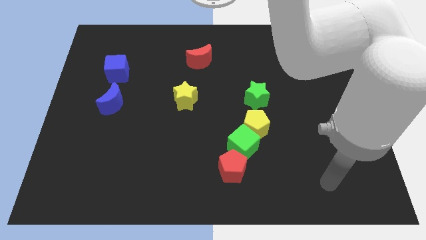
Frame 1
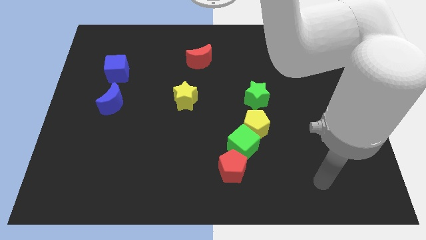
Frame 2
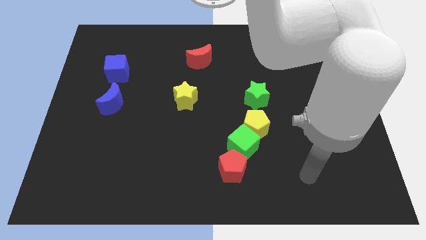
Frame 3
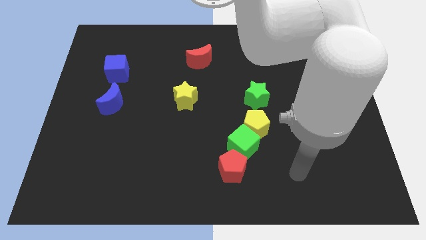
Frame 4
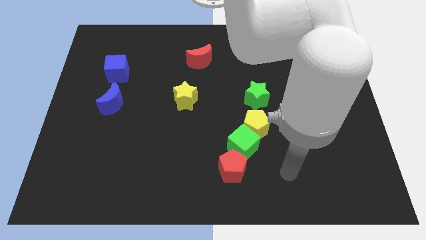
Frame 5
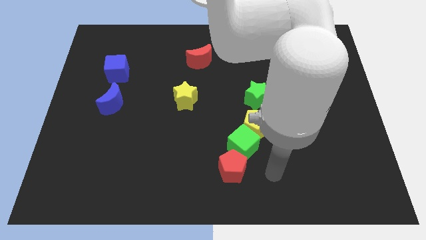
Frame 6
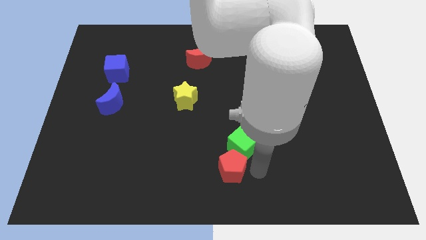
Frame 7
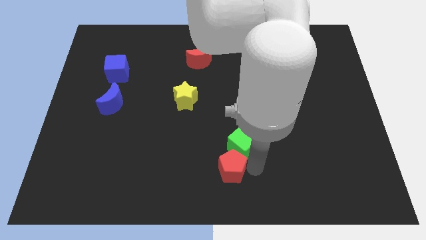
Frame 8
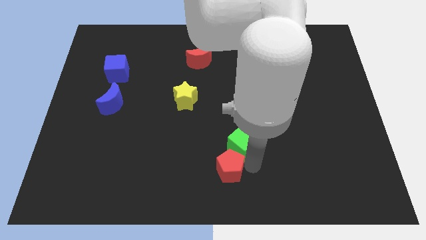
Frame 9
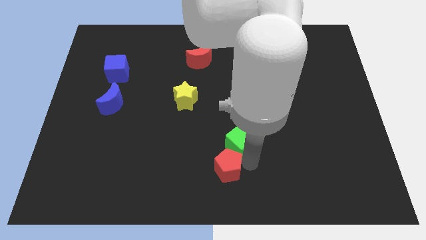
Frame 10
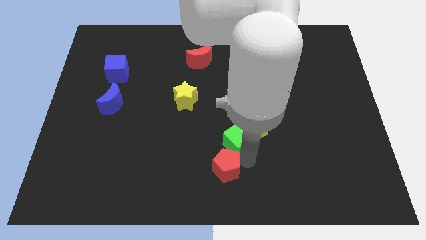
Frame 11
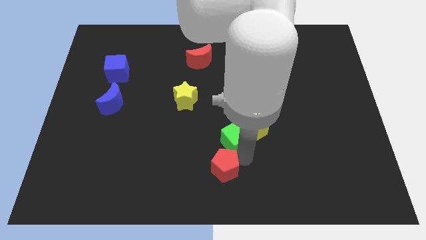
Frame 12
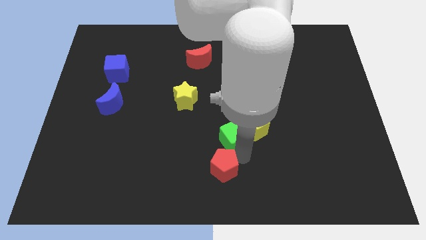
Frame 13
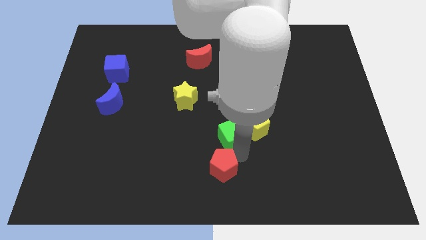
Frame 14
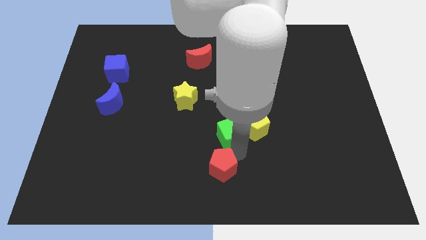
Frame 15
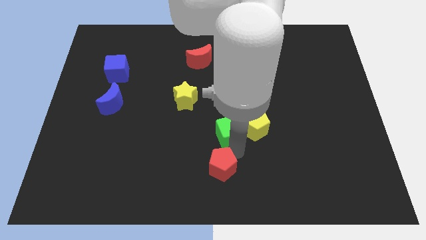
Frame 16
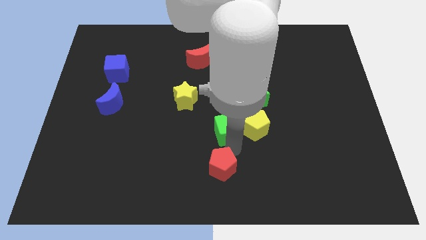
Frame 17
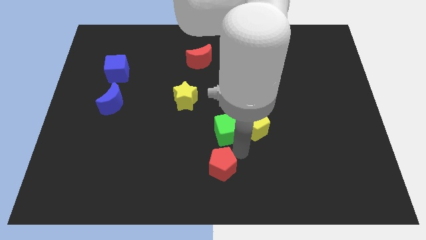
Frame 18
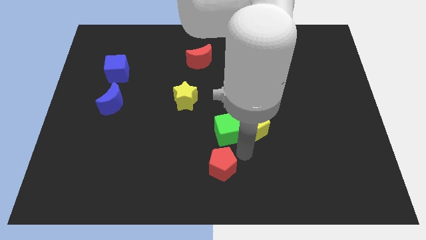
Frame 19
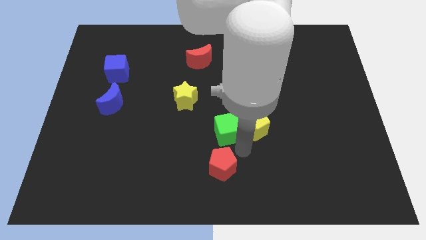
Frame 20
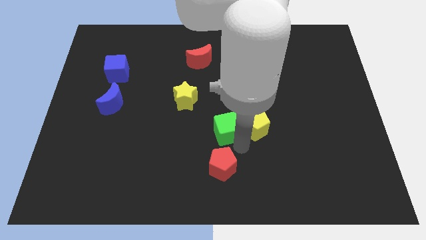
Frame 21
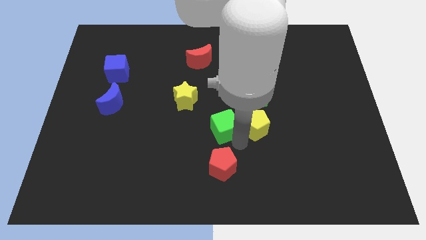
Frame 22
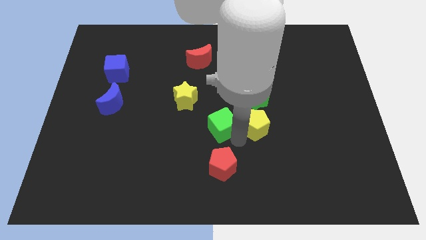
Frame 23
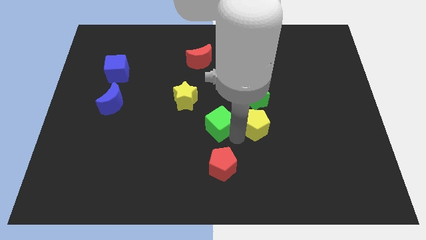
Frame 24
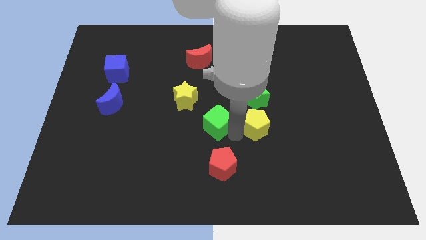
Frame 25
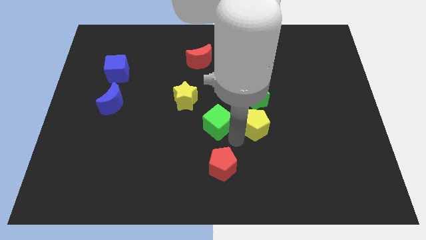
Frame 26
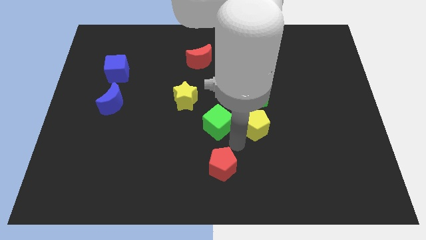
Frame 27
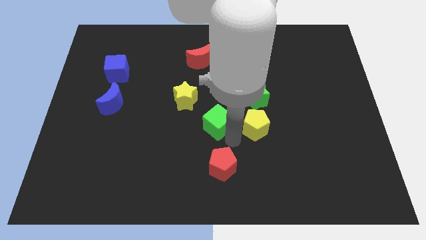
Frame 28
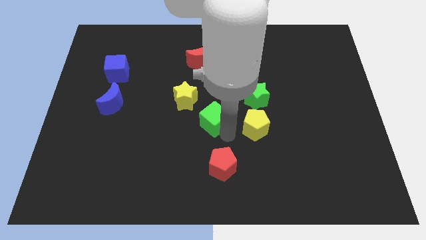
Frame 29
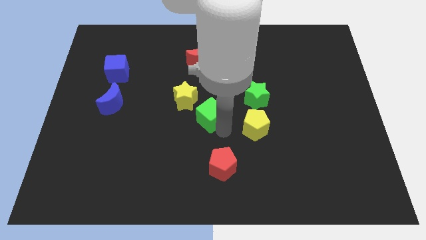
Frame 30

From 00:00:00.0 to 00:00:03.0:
pull the green cube apart from the yellow pentagon and red pentagon

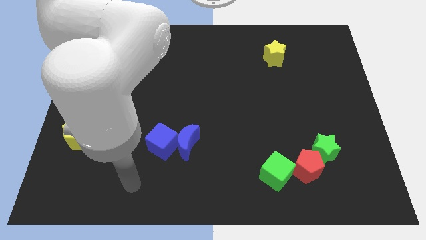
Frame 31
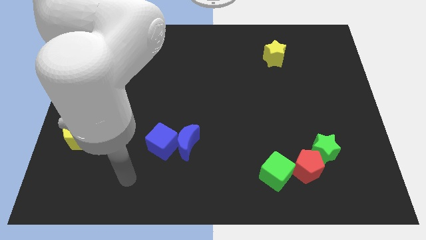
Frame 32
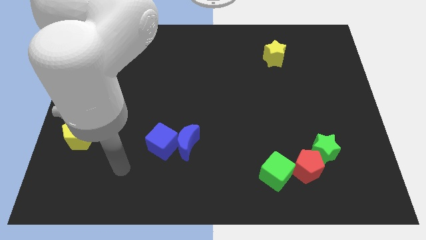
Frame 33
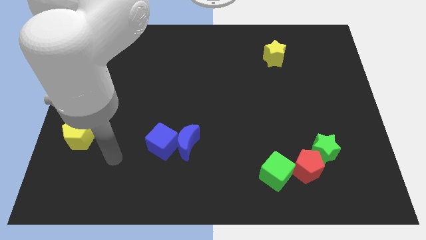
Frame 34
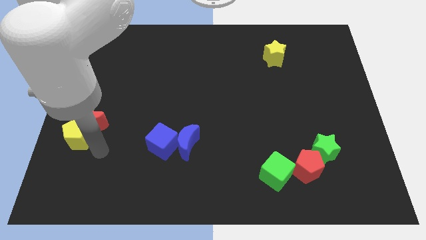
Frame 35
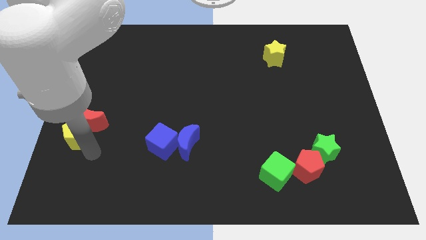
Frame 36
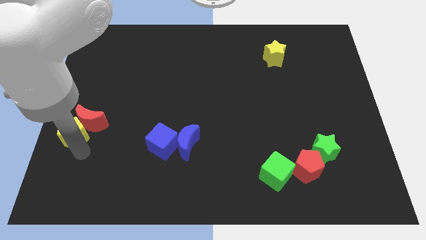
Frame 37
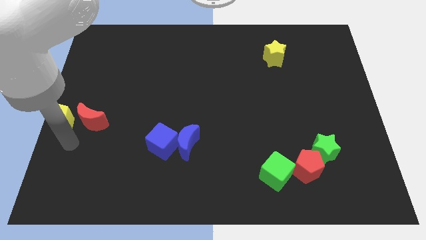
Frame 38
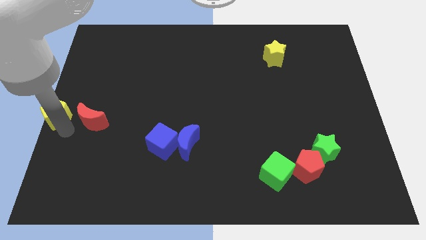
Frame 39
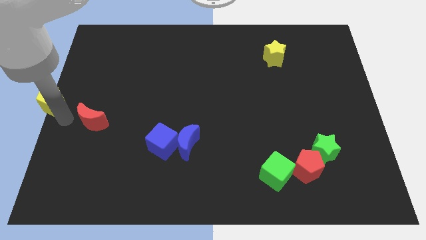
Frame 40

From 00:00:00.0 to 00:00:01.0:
move the red moon away from the yellow pentagon

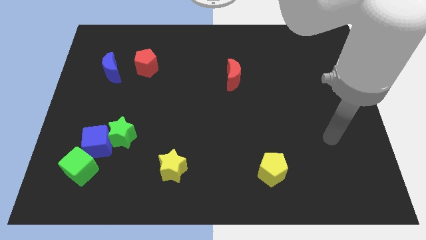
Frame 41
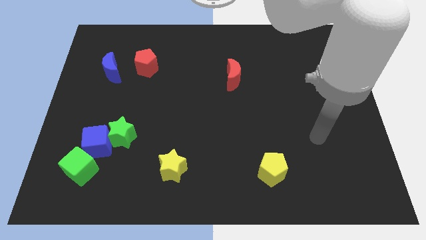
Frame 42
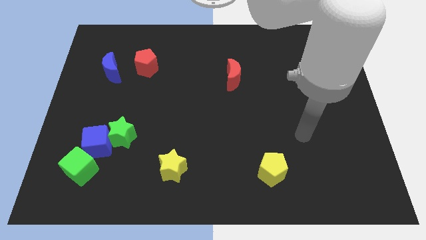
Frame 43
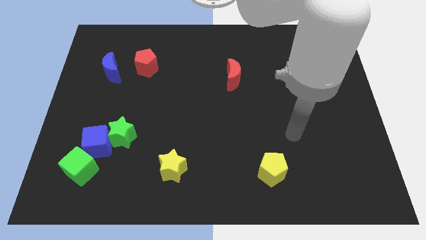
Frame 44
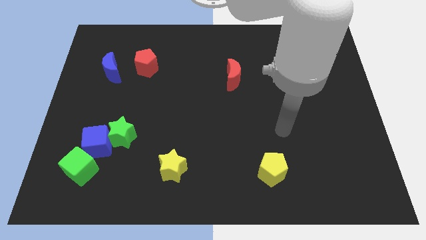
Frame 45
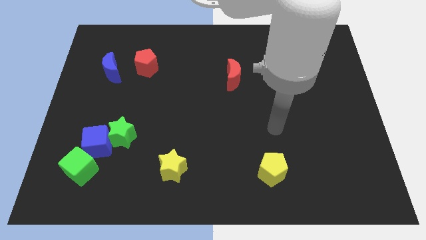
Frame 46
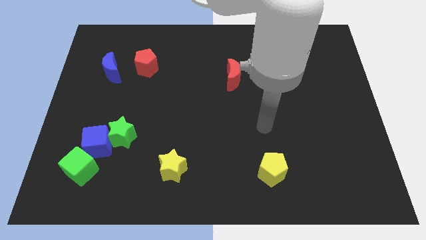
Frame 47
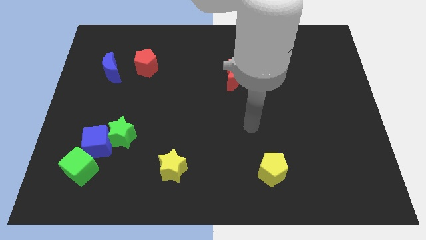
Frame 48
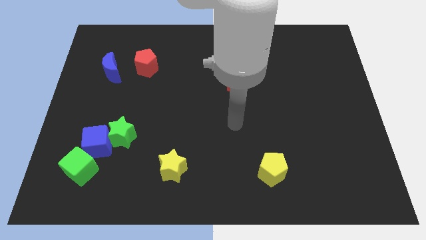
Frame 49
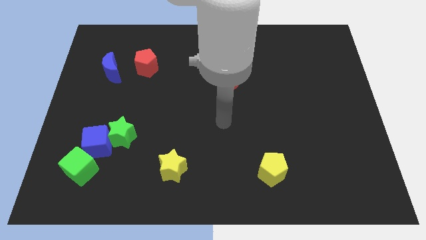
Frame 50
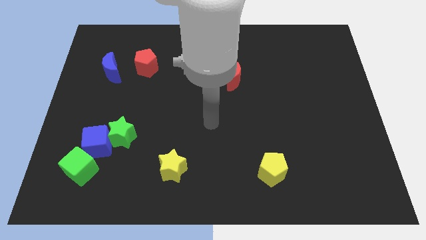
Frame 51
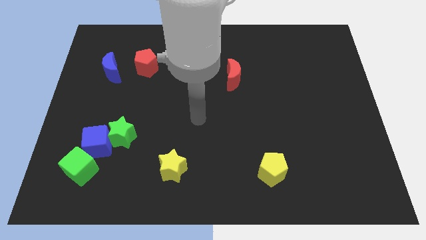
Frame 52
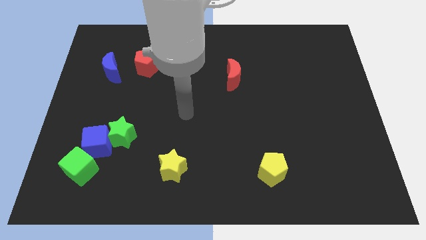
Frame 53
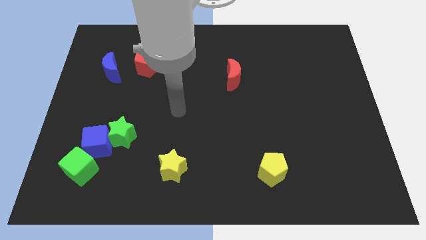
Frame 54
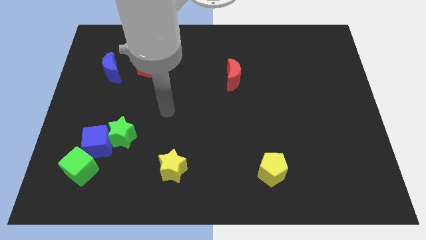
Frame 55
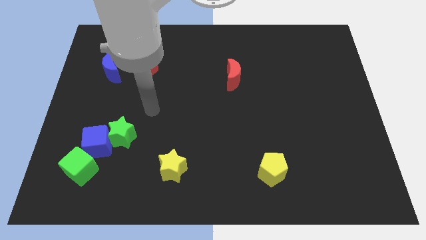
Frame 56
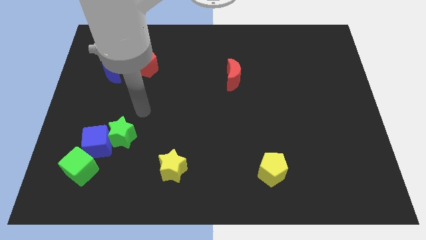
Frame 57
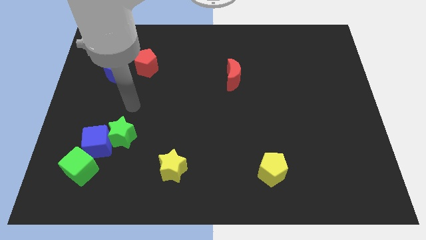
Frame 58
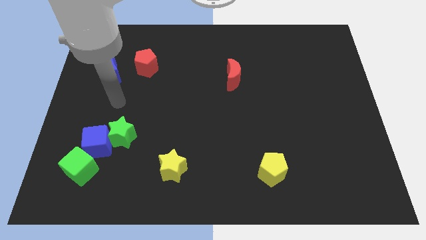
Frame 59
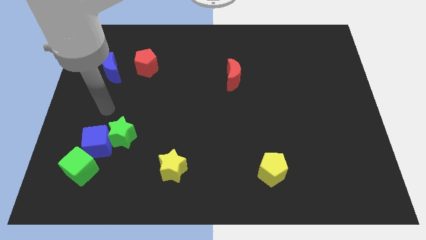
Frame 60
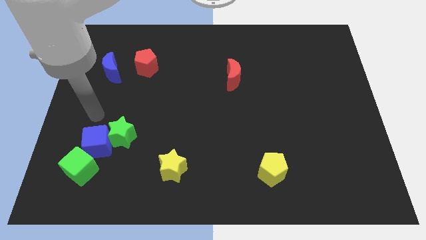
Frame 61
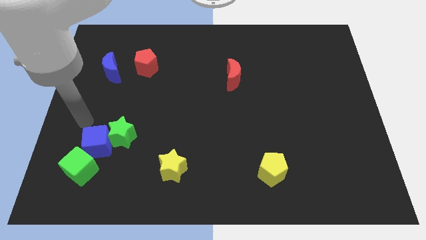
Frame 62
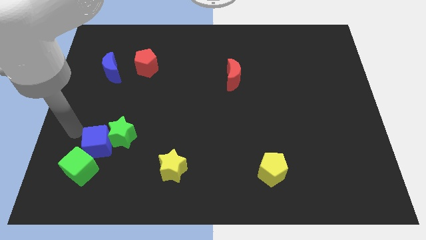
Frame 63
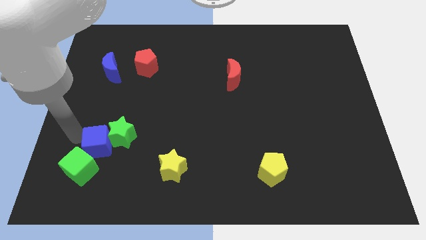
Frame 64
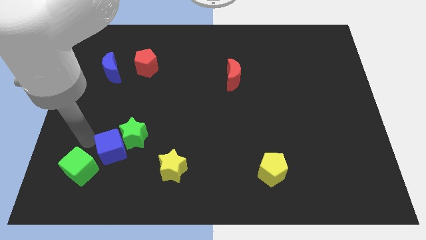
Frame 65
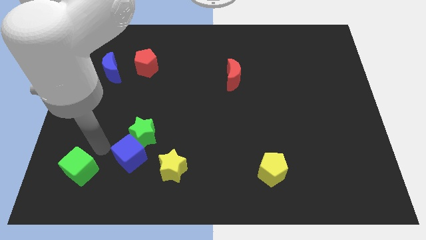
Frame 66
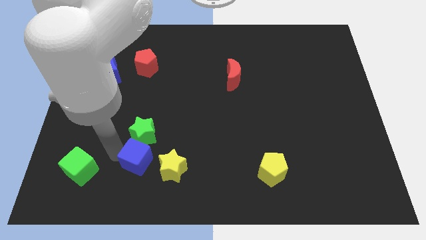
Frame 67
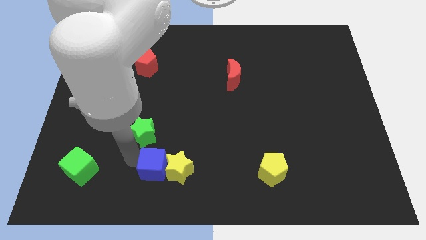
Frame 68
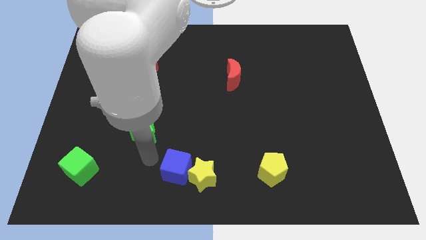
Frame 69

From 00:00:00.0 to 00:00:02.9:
move the green star away from the blue cube

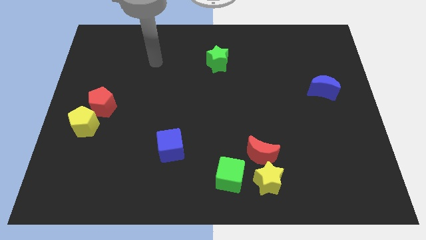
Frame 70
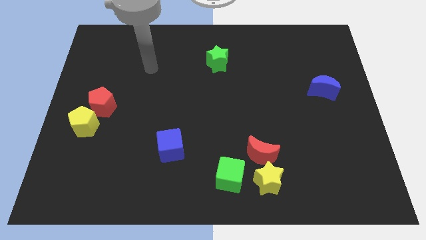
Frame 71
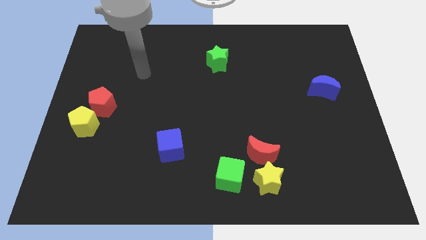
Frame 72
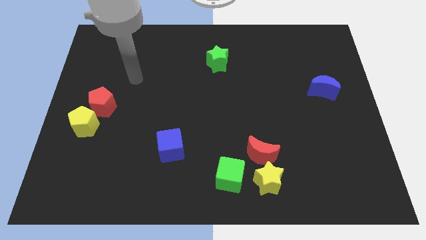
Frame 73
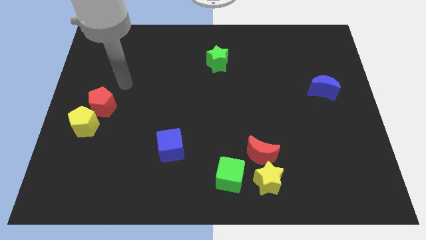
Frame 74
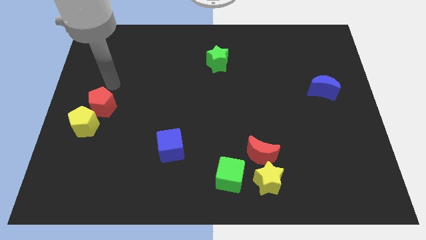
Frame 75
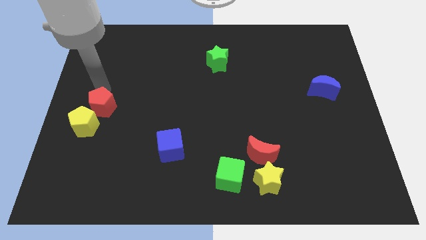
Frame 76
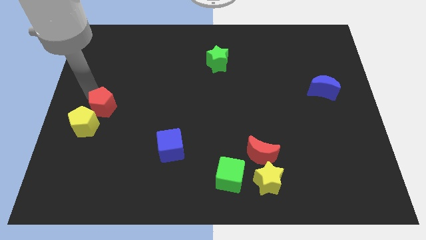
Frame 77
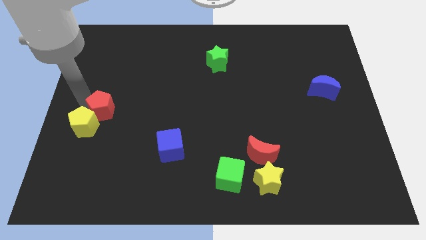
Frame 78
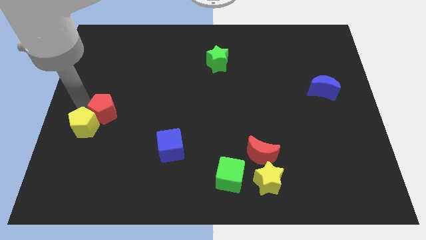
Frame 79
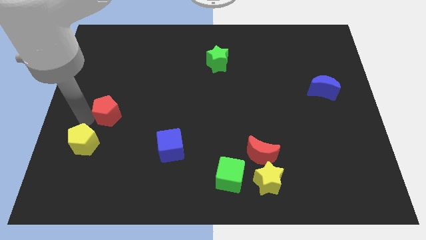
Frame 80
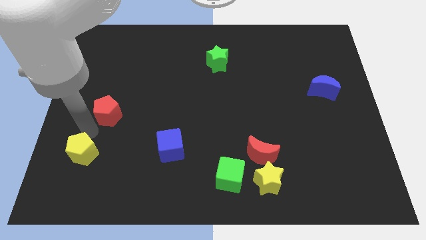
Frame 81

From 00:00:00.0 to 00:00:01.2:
separate the red pentagon from the yellow pentagon

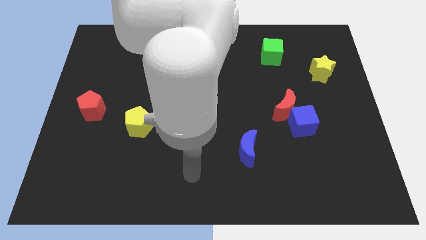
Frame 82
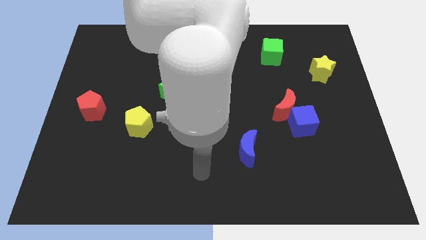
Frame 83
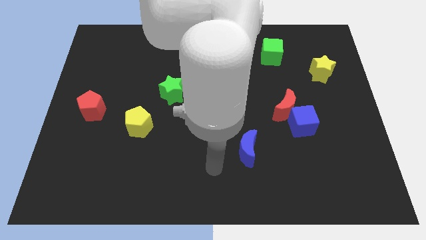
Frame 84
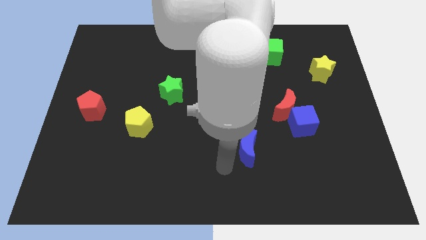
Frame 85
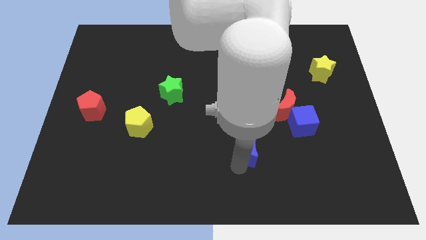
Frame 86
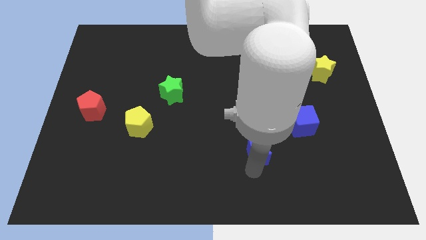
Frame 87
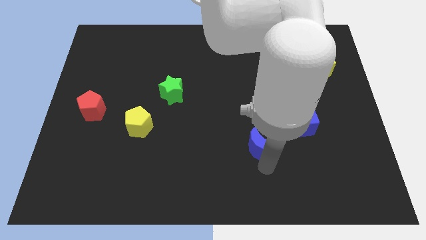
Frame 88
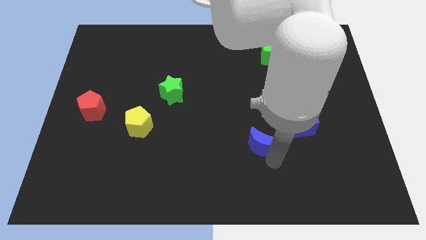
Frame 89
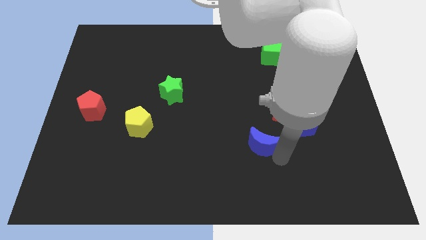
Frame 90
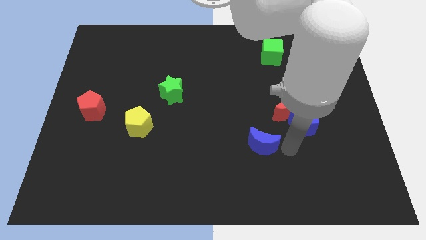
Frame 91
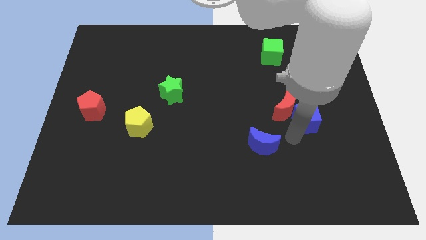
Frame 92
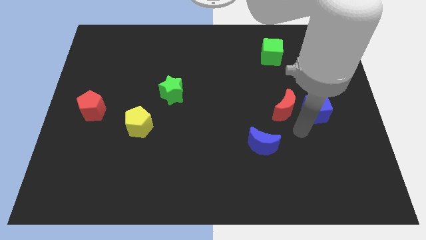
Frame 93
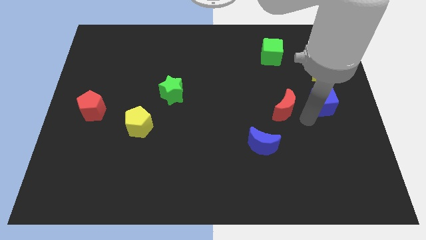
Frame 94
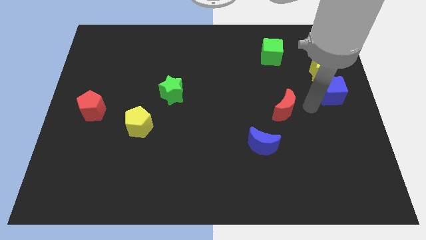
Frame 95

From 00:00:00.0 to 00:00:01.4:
move the red moon away from the blue cube
